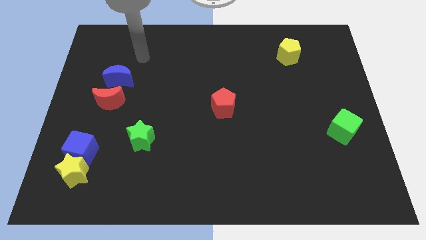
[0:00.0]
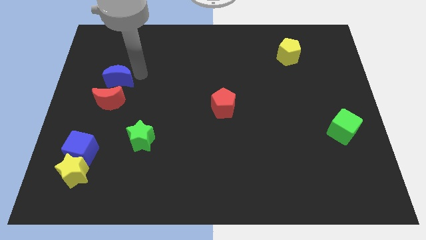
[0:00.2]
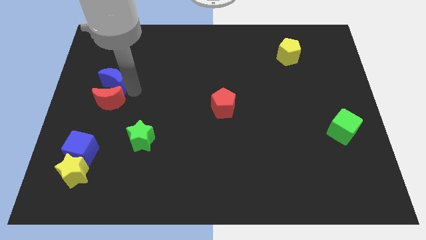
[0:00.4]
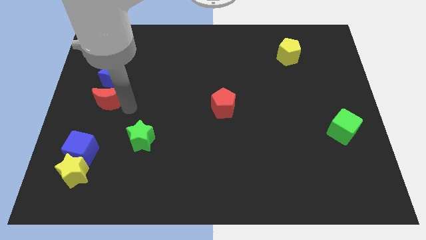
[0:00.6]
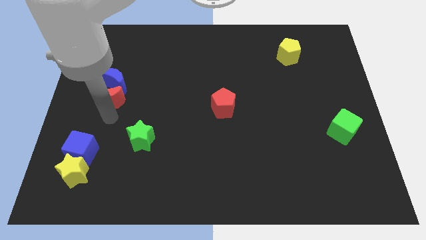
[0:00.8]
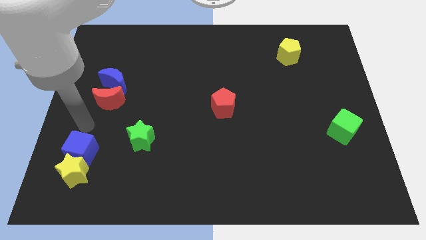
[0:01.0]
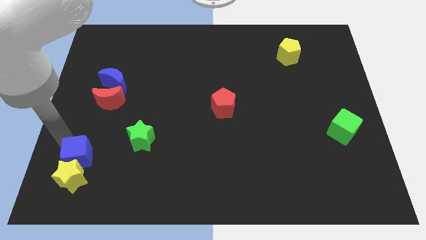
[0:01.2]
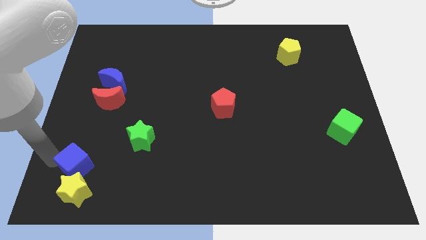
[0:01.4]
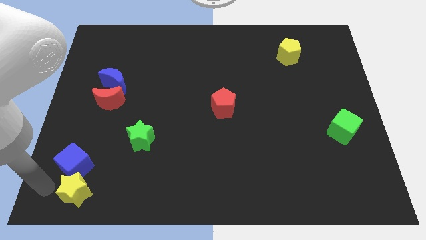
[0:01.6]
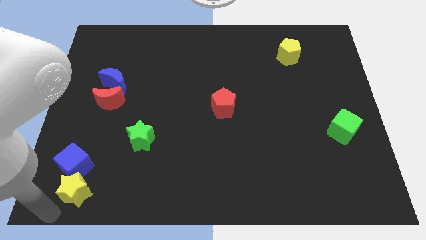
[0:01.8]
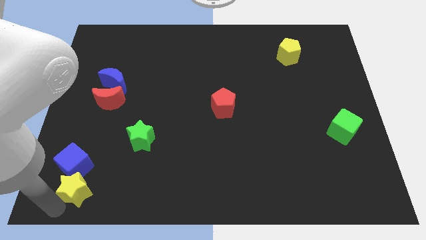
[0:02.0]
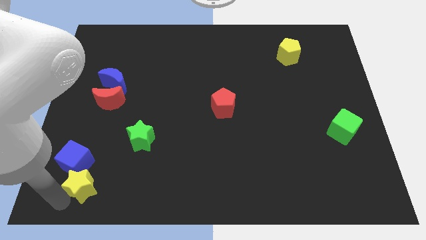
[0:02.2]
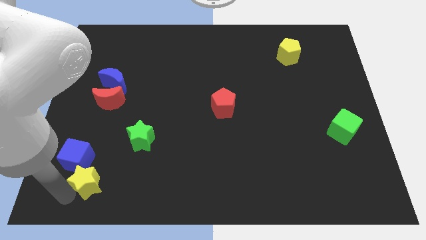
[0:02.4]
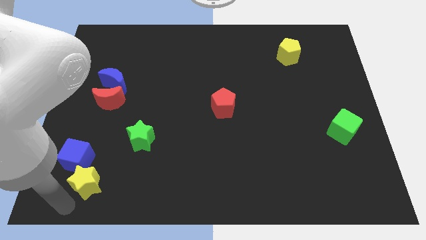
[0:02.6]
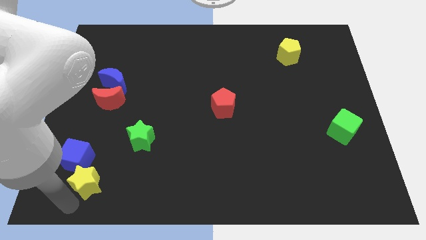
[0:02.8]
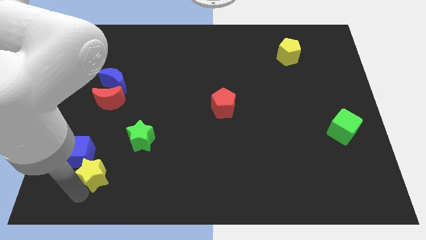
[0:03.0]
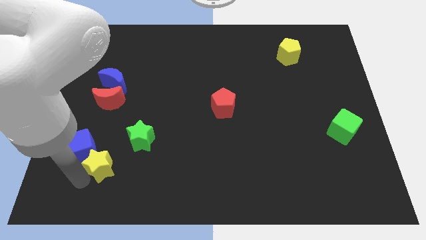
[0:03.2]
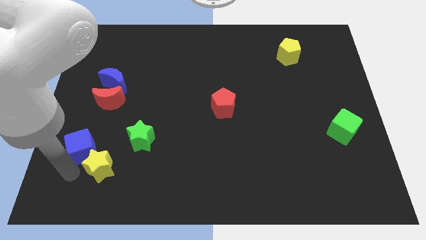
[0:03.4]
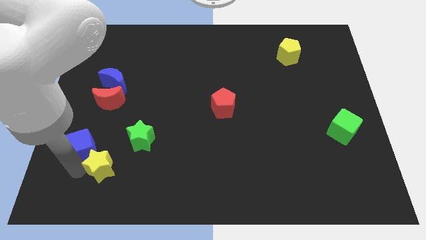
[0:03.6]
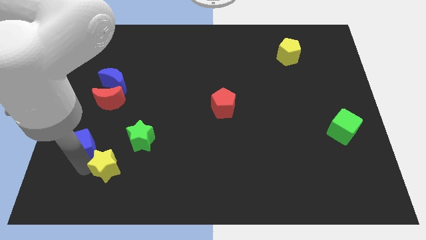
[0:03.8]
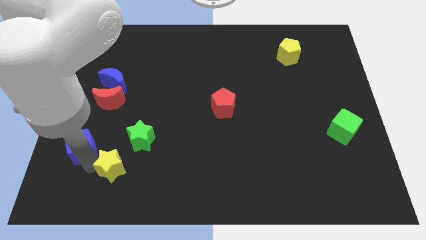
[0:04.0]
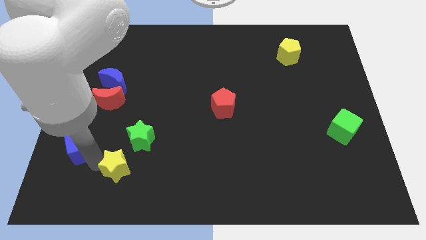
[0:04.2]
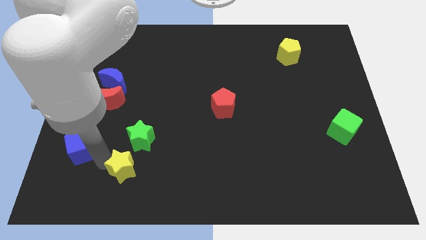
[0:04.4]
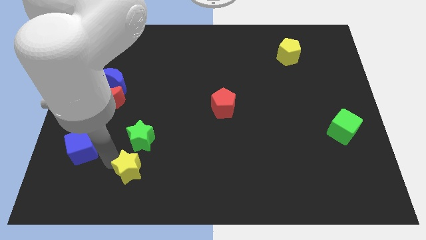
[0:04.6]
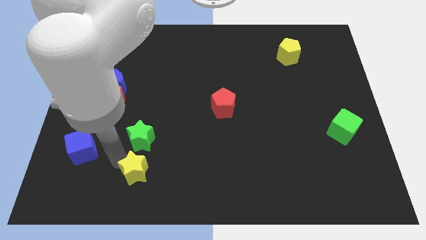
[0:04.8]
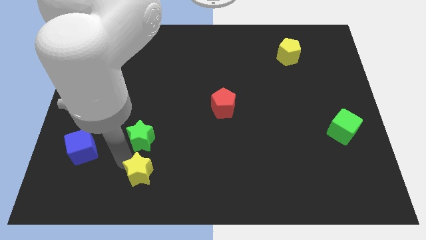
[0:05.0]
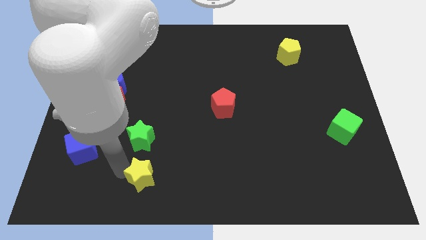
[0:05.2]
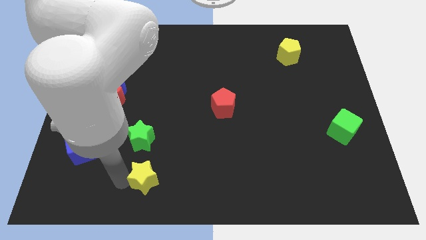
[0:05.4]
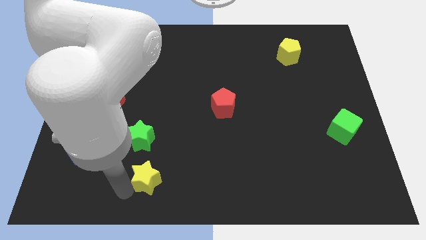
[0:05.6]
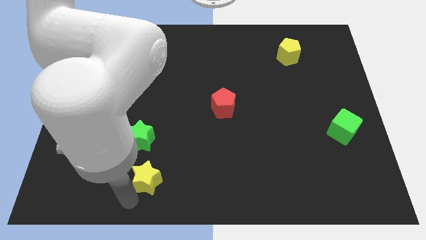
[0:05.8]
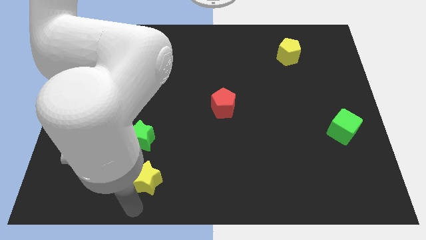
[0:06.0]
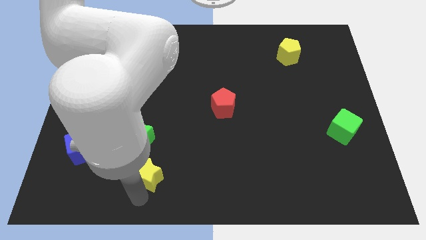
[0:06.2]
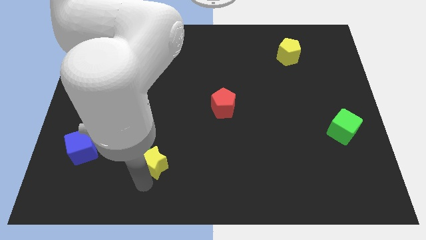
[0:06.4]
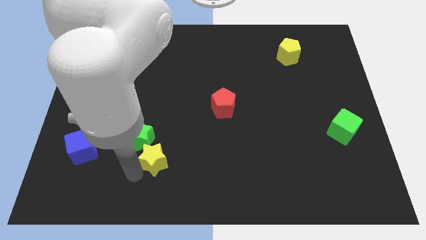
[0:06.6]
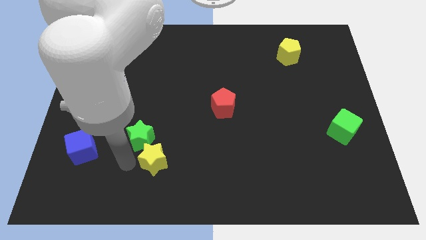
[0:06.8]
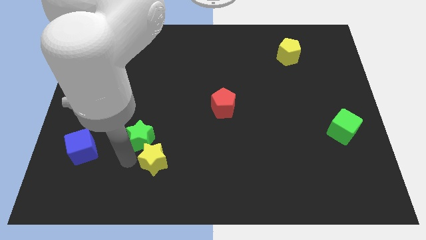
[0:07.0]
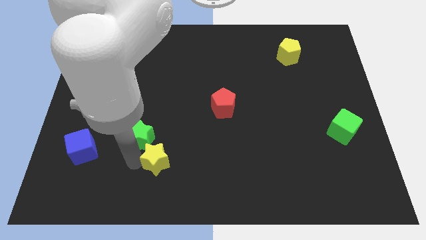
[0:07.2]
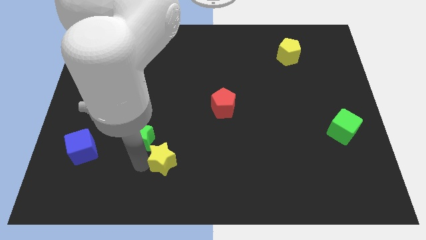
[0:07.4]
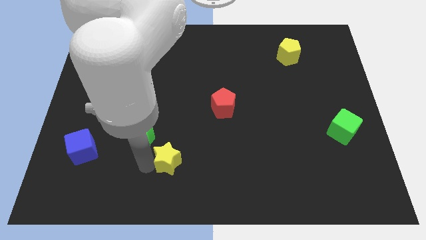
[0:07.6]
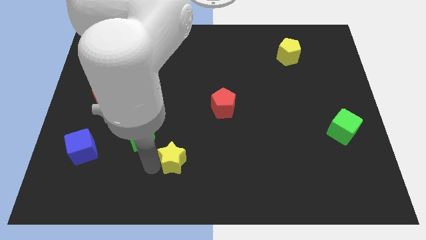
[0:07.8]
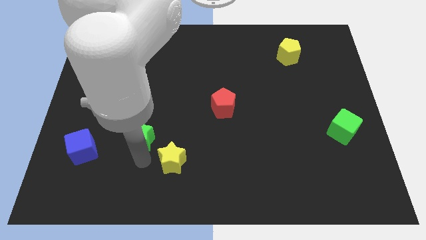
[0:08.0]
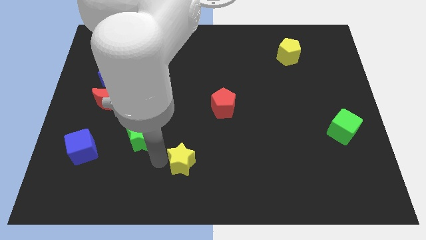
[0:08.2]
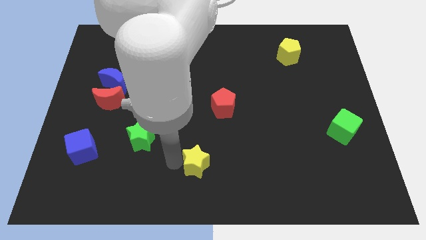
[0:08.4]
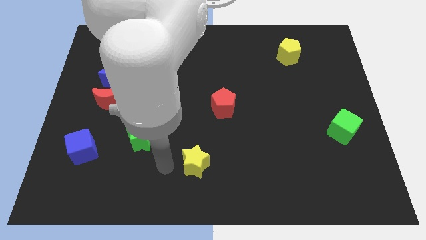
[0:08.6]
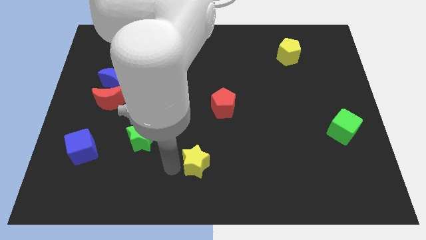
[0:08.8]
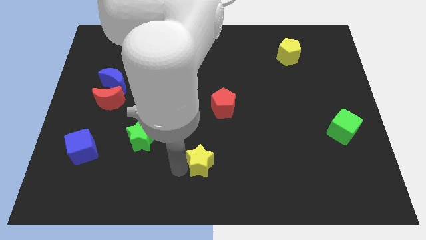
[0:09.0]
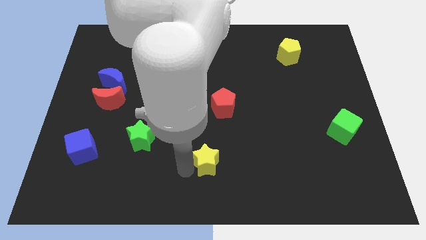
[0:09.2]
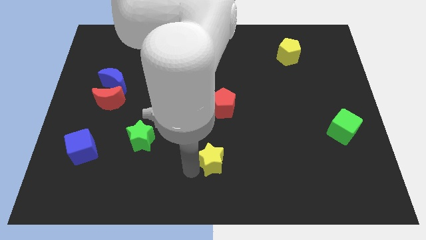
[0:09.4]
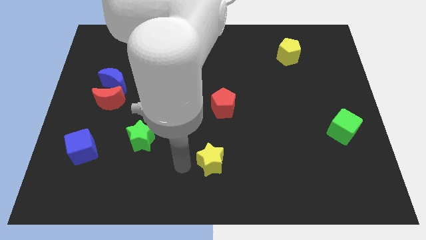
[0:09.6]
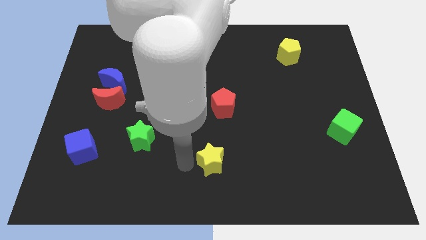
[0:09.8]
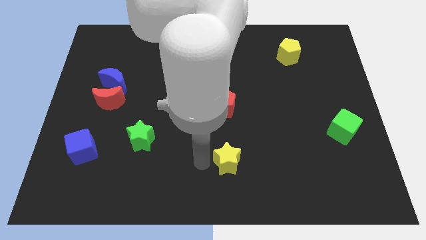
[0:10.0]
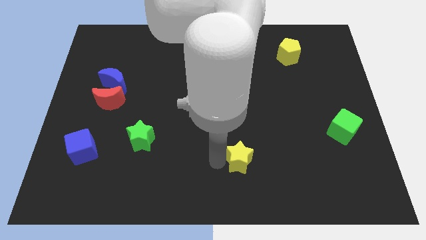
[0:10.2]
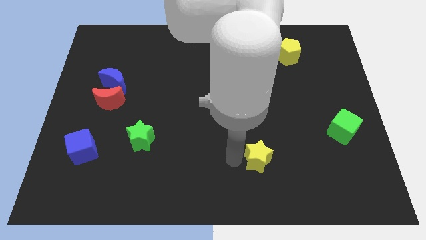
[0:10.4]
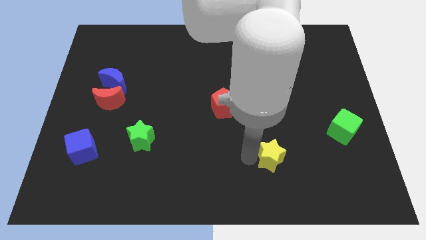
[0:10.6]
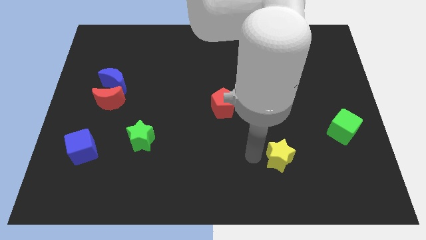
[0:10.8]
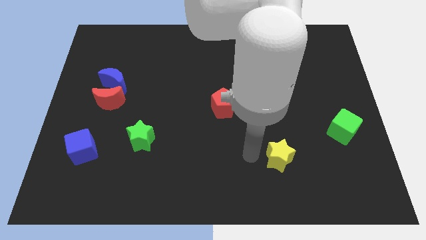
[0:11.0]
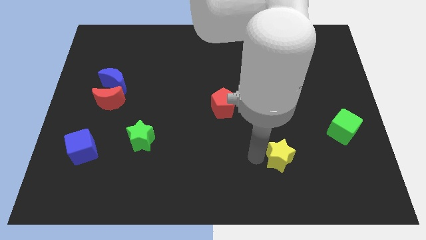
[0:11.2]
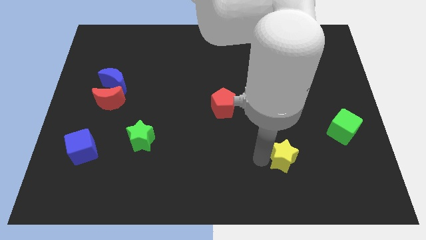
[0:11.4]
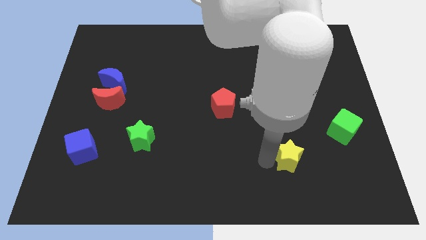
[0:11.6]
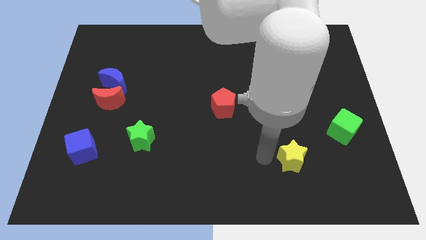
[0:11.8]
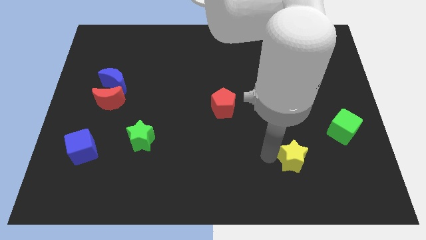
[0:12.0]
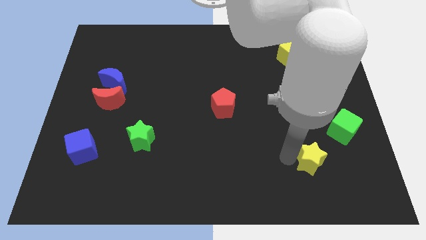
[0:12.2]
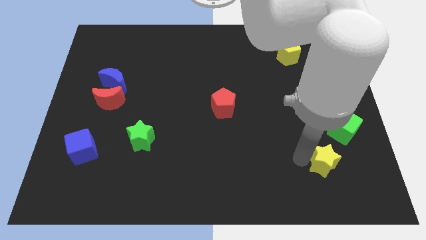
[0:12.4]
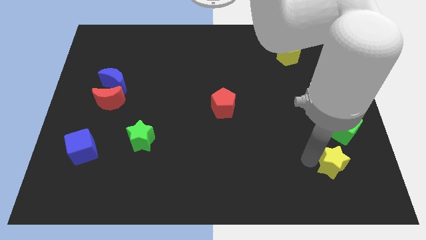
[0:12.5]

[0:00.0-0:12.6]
move the yellow star below the green cube

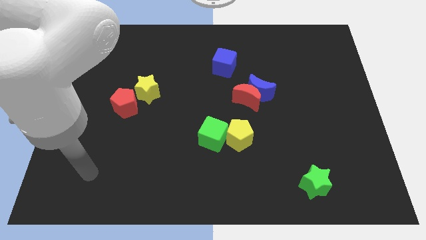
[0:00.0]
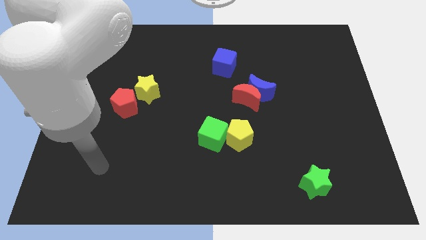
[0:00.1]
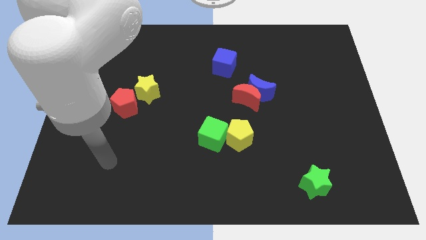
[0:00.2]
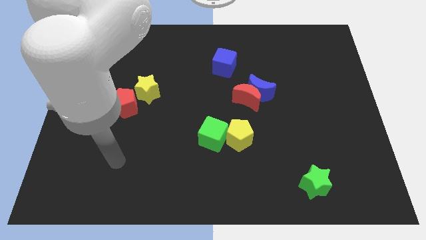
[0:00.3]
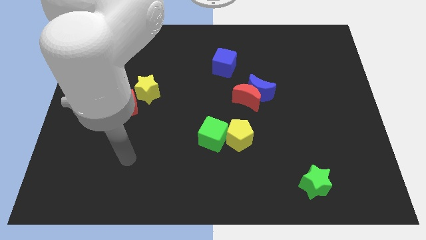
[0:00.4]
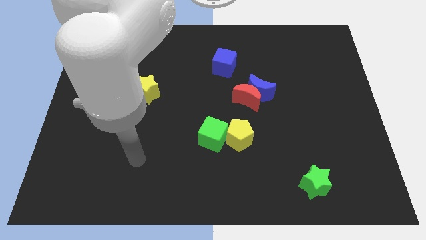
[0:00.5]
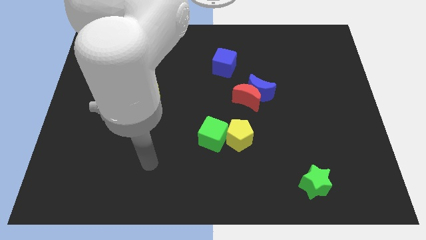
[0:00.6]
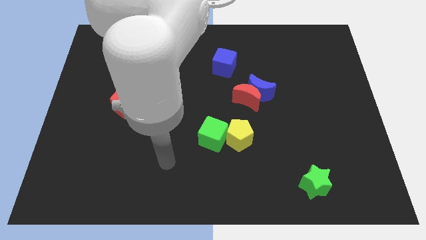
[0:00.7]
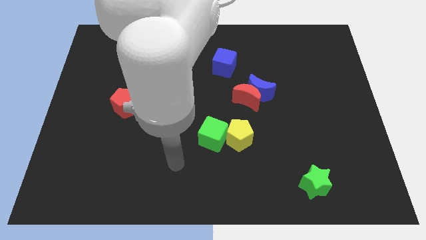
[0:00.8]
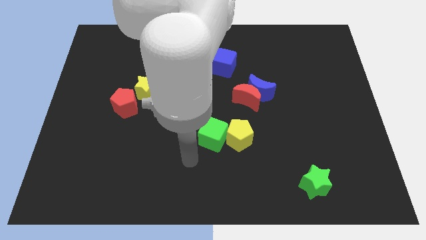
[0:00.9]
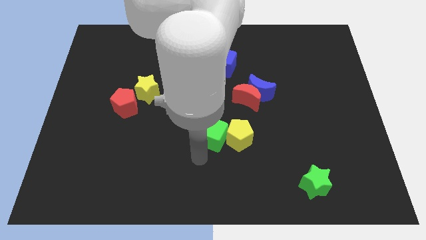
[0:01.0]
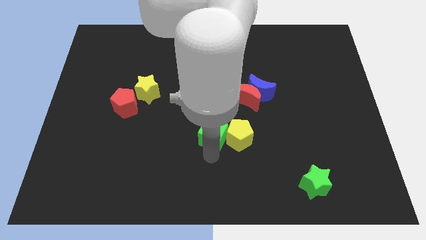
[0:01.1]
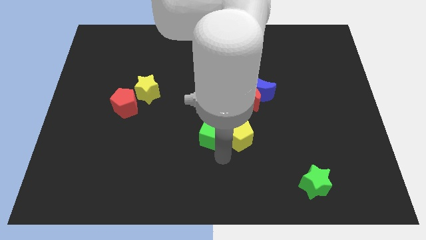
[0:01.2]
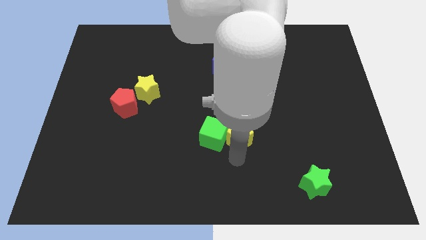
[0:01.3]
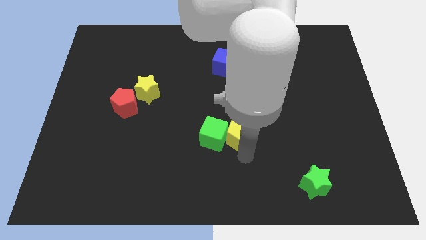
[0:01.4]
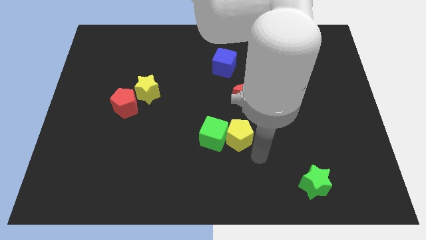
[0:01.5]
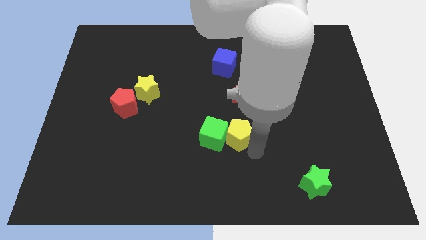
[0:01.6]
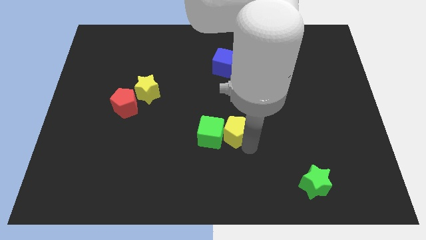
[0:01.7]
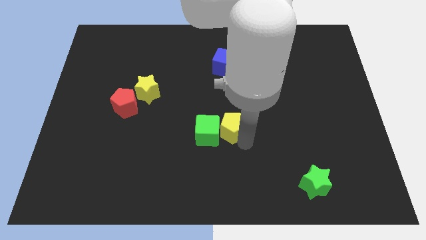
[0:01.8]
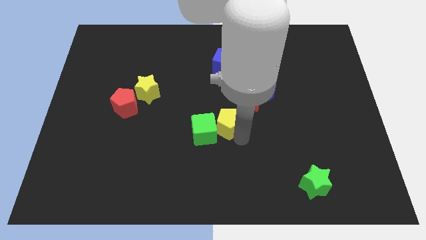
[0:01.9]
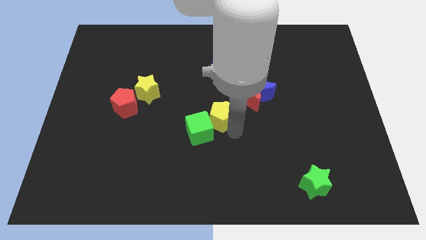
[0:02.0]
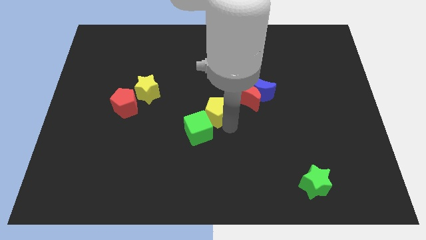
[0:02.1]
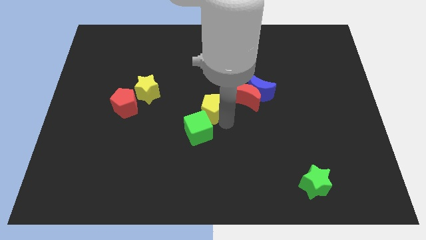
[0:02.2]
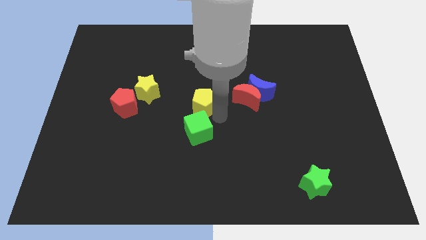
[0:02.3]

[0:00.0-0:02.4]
slide the yellow pentagon to the right side of the yellow star
